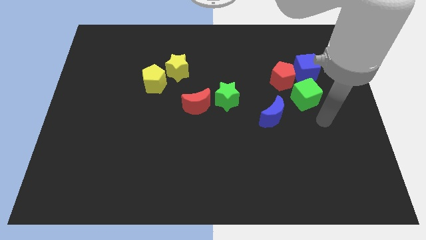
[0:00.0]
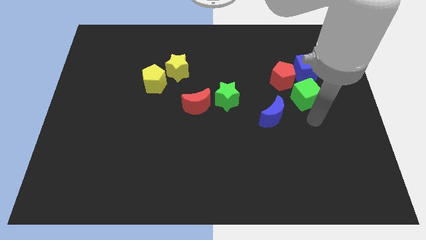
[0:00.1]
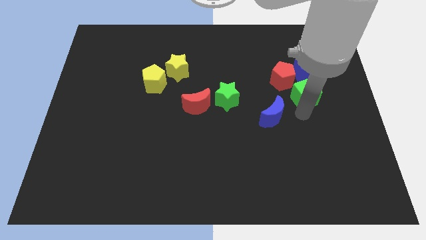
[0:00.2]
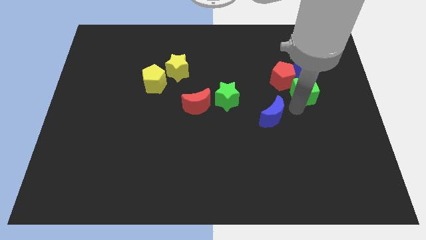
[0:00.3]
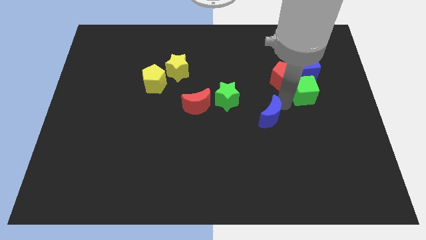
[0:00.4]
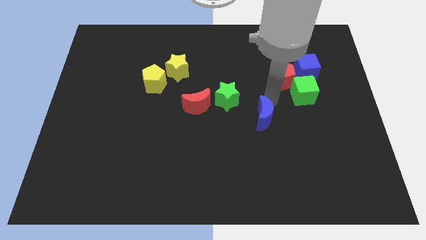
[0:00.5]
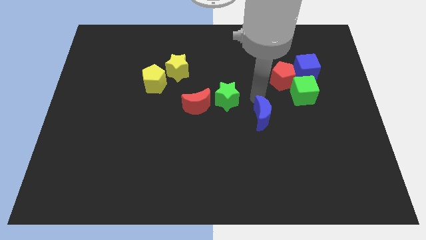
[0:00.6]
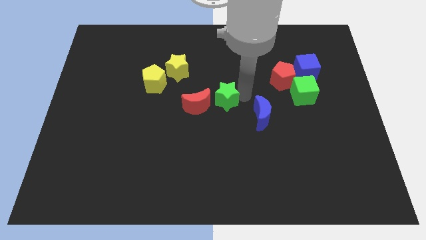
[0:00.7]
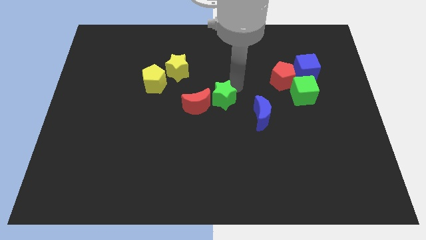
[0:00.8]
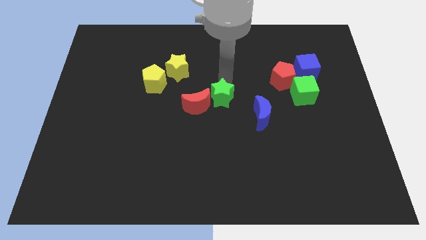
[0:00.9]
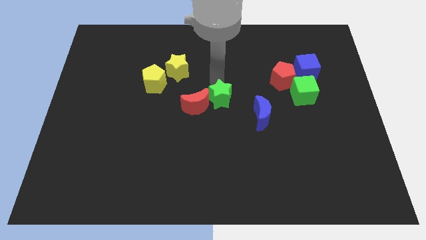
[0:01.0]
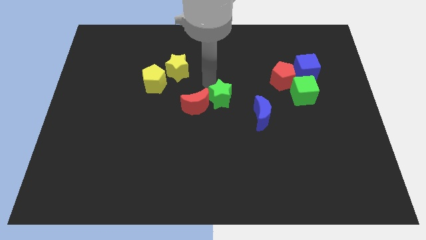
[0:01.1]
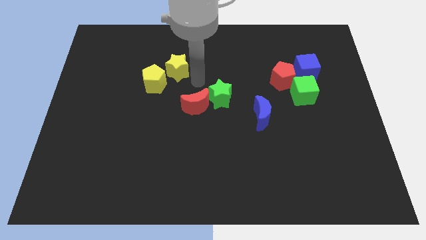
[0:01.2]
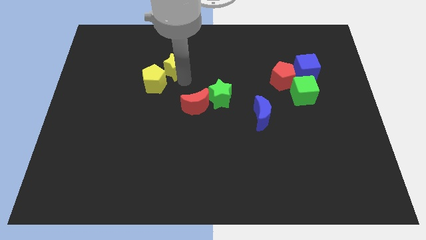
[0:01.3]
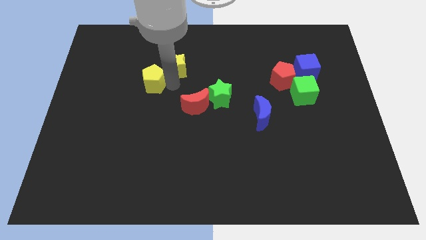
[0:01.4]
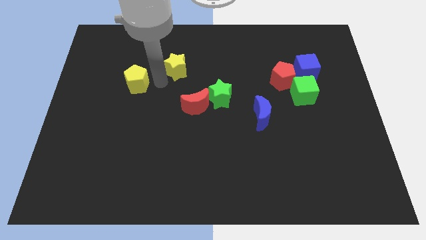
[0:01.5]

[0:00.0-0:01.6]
move the yellow star away from the yellow pentagon

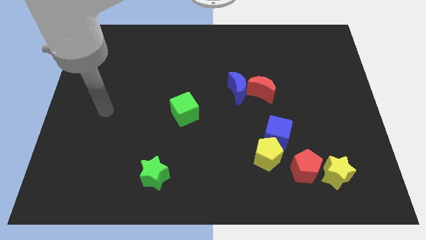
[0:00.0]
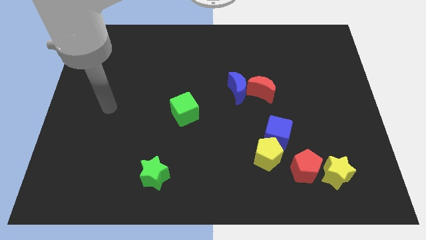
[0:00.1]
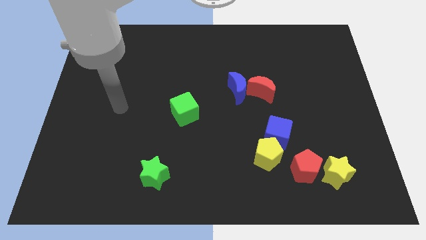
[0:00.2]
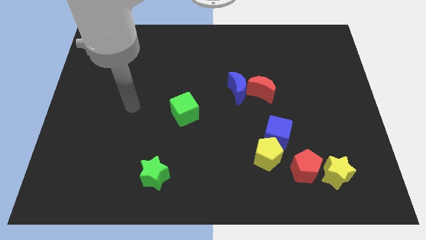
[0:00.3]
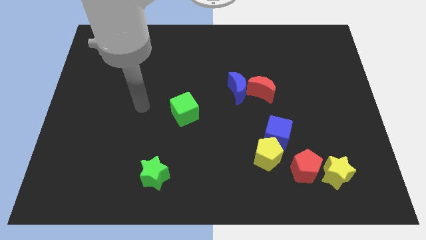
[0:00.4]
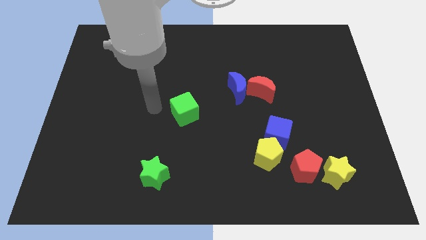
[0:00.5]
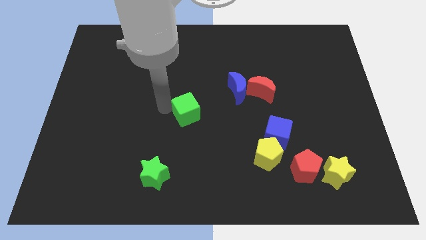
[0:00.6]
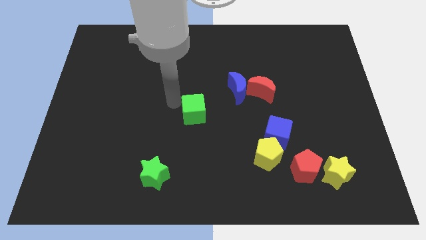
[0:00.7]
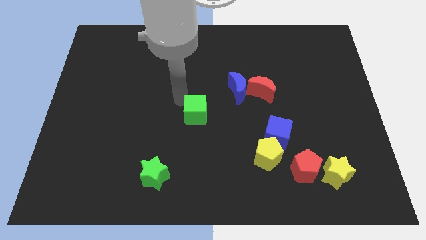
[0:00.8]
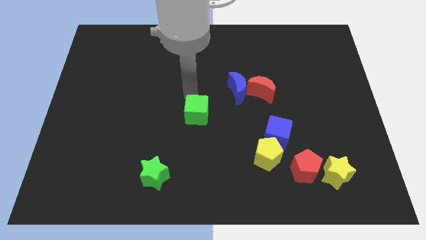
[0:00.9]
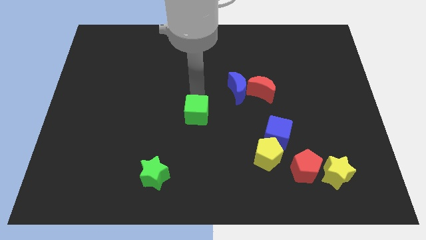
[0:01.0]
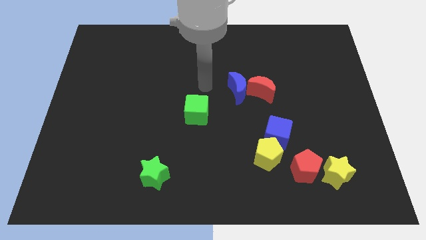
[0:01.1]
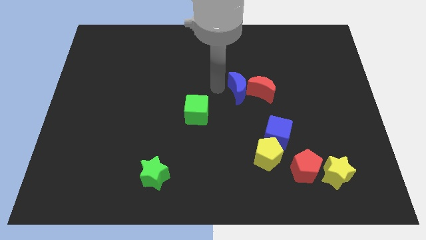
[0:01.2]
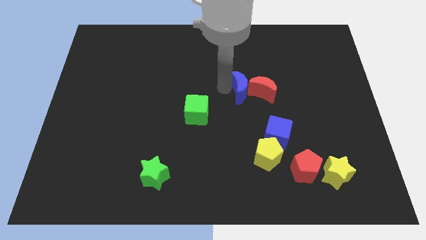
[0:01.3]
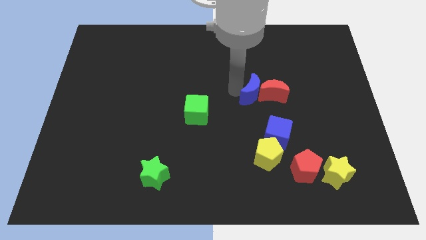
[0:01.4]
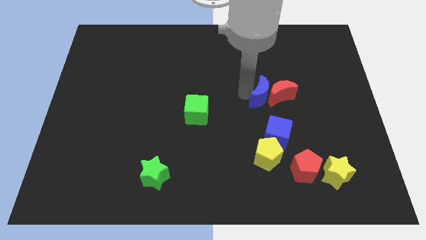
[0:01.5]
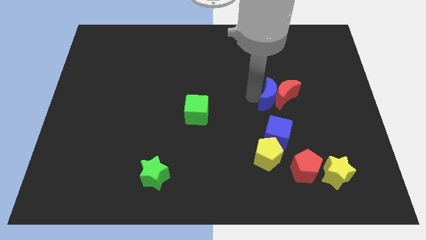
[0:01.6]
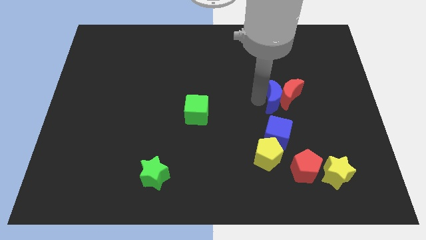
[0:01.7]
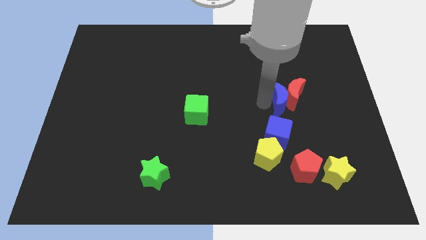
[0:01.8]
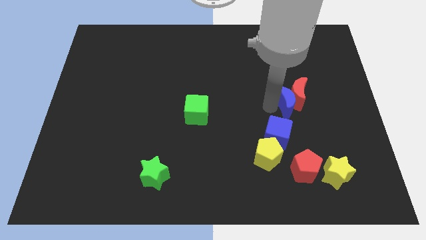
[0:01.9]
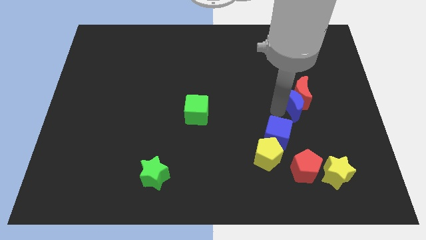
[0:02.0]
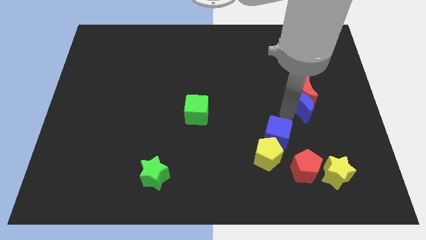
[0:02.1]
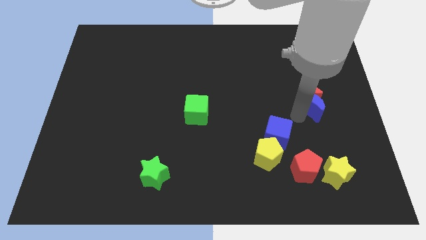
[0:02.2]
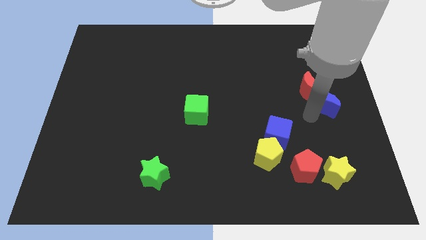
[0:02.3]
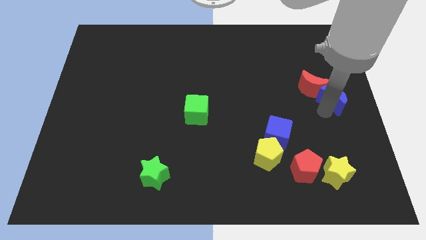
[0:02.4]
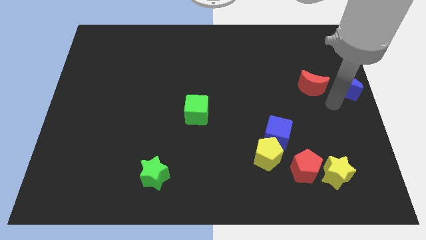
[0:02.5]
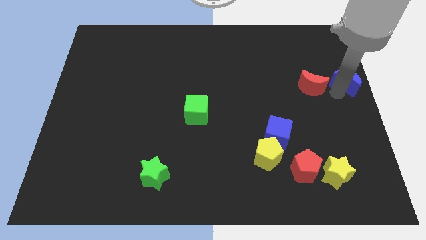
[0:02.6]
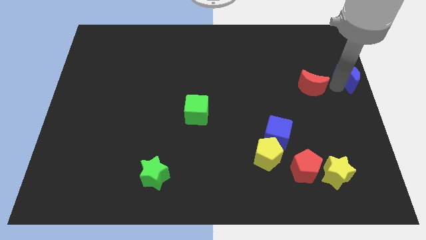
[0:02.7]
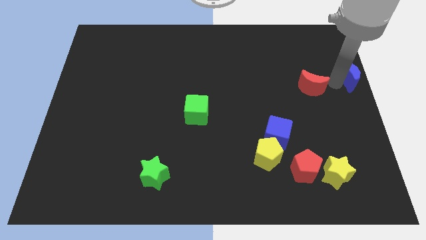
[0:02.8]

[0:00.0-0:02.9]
separate the red moon from the blue moon

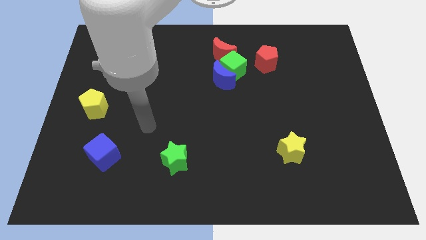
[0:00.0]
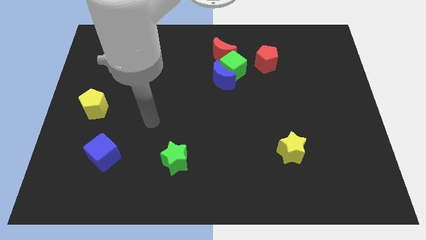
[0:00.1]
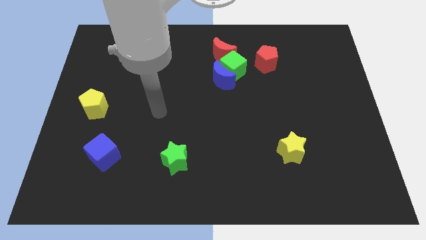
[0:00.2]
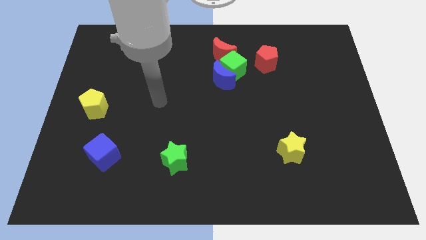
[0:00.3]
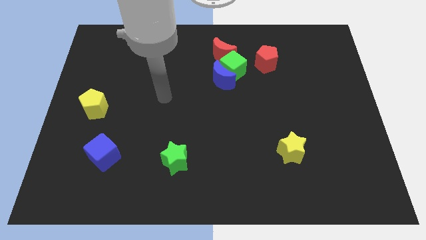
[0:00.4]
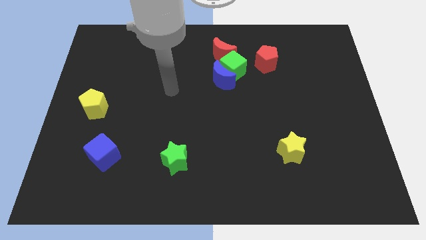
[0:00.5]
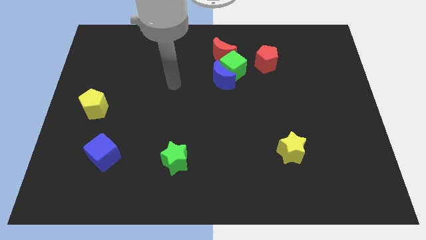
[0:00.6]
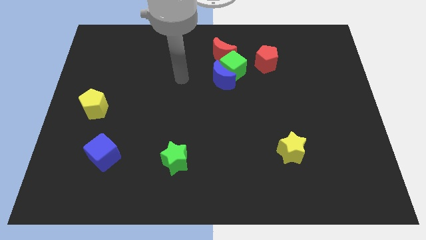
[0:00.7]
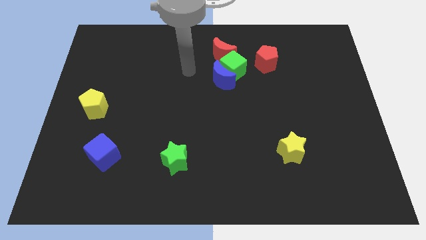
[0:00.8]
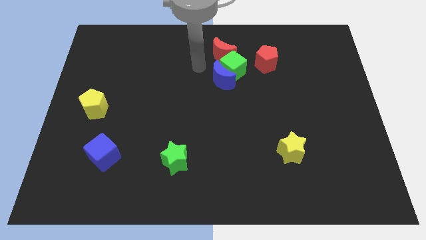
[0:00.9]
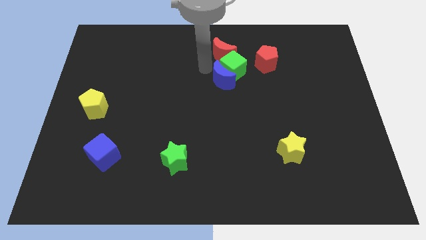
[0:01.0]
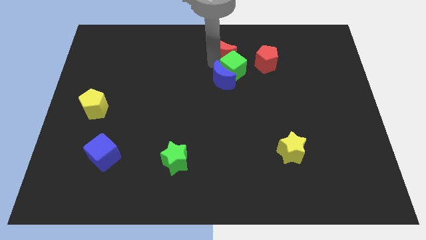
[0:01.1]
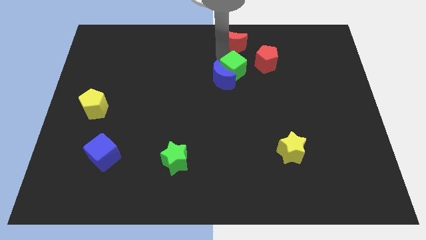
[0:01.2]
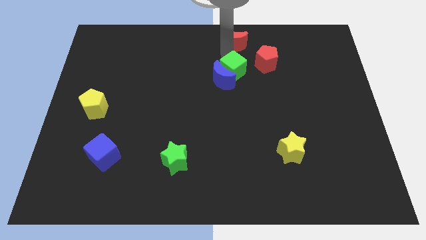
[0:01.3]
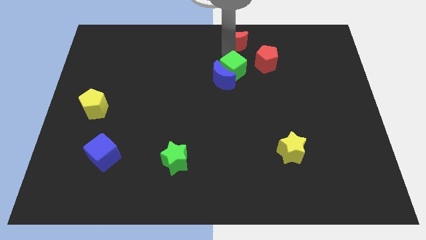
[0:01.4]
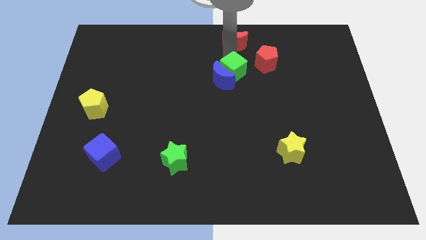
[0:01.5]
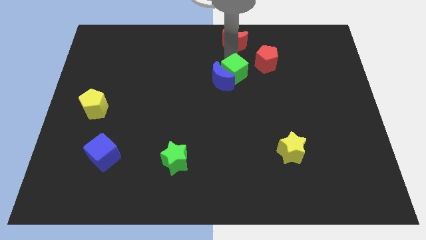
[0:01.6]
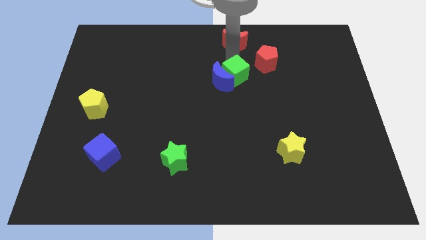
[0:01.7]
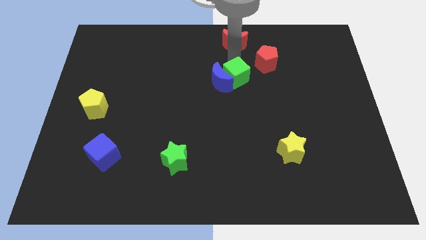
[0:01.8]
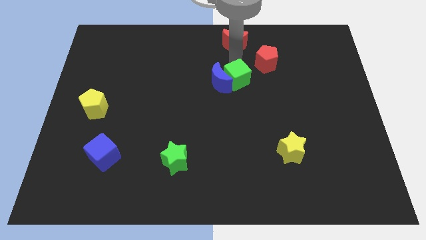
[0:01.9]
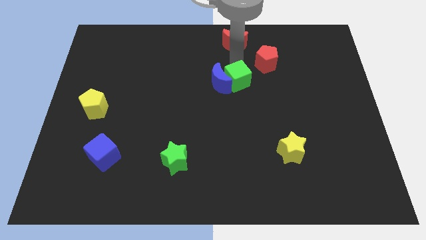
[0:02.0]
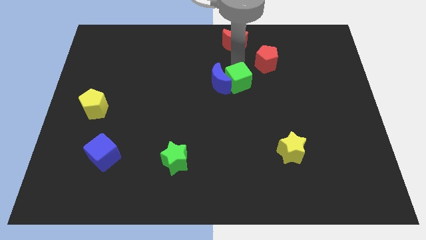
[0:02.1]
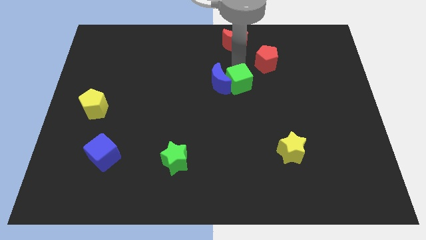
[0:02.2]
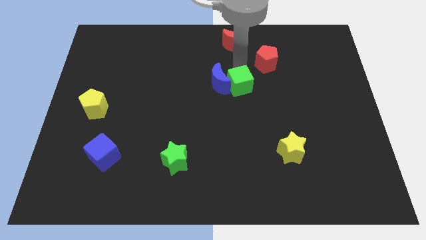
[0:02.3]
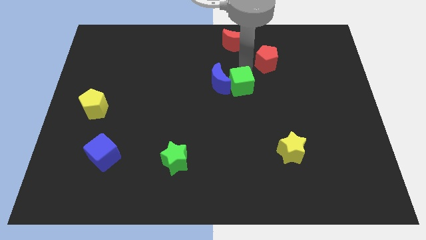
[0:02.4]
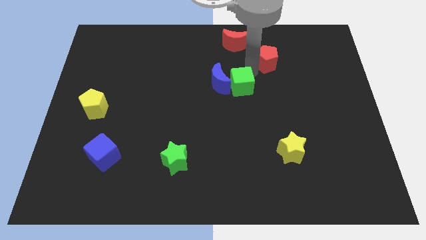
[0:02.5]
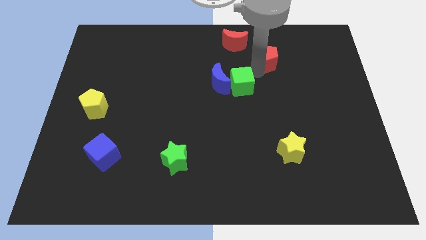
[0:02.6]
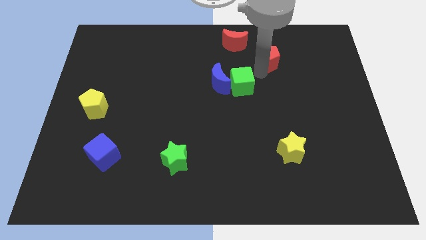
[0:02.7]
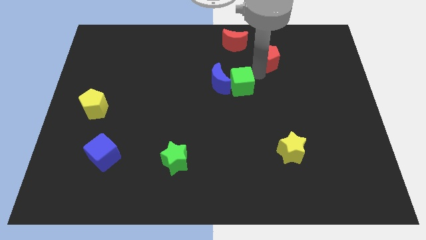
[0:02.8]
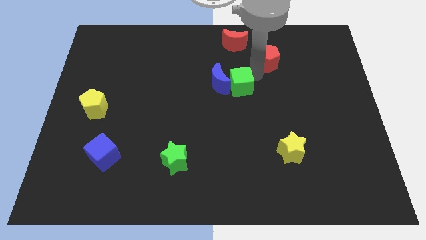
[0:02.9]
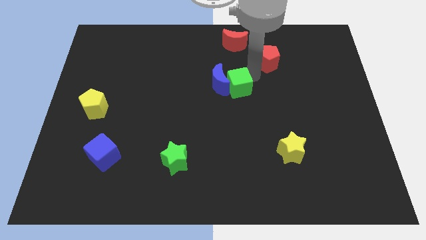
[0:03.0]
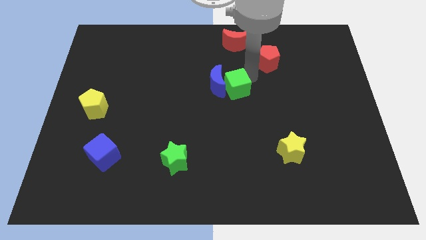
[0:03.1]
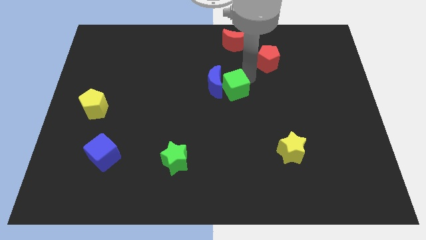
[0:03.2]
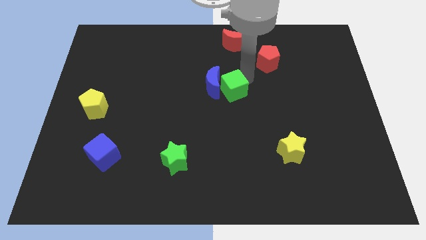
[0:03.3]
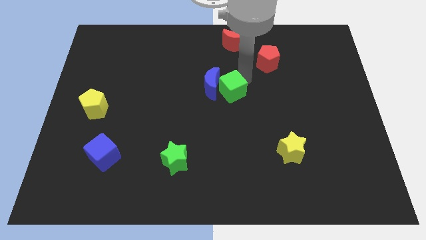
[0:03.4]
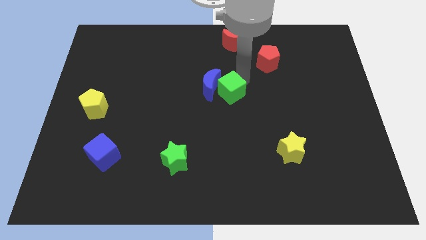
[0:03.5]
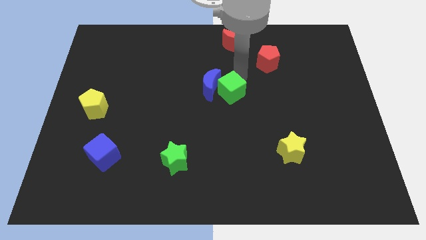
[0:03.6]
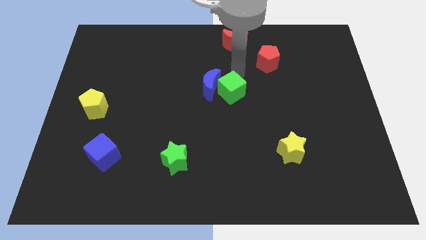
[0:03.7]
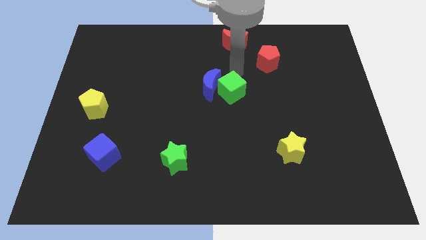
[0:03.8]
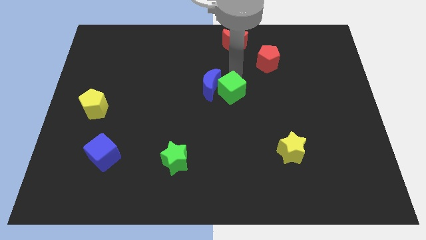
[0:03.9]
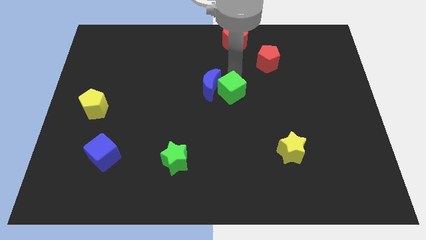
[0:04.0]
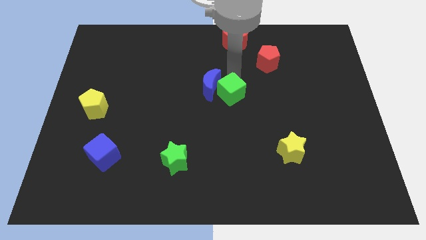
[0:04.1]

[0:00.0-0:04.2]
move the green cube away from the group of blocks

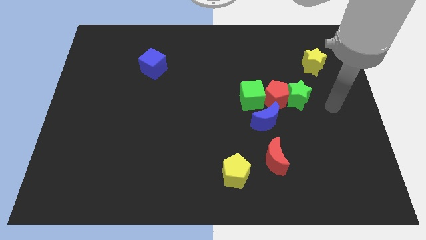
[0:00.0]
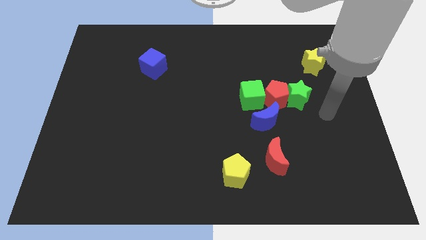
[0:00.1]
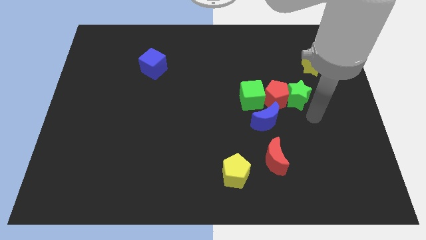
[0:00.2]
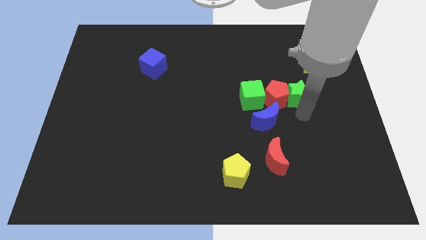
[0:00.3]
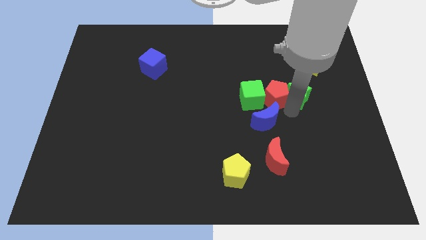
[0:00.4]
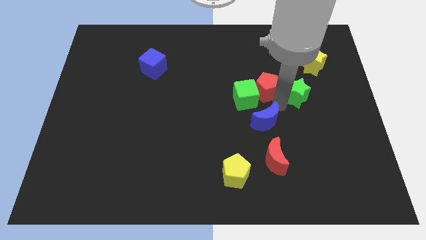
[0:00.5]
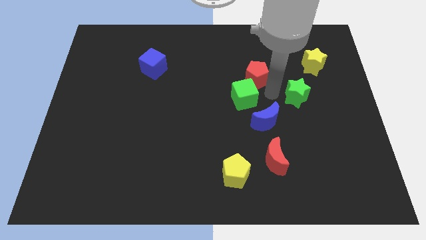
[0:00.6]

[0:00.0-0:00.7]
pull the green star apart from the red pentagon
